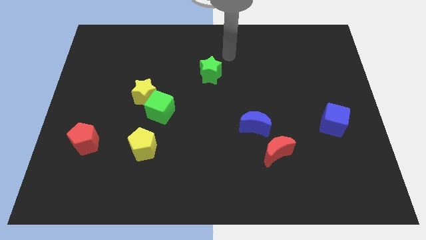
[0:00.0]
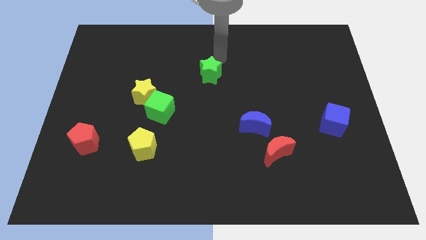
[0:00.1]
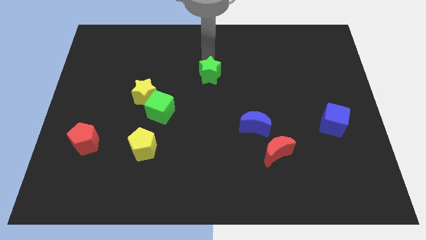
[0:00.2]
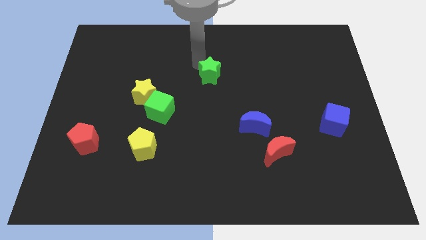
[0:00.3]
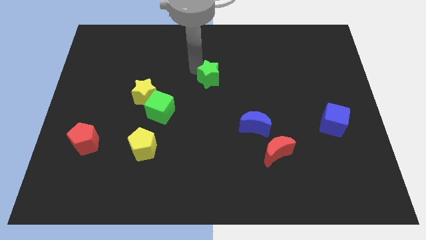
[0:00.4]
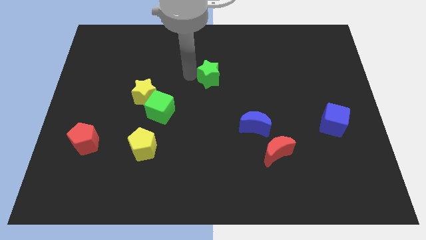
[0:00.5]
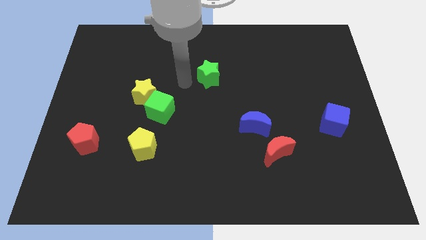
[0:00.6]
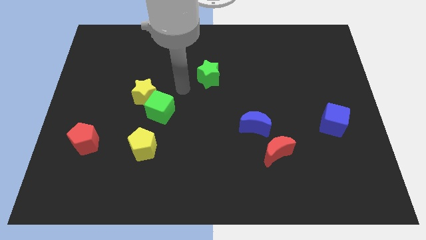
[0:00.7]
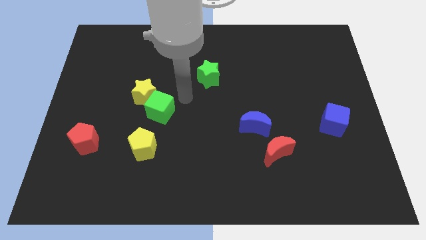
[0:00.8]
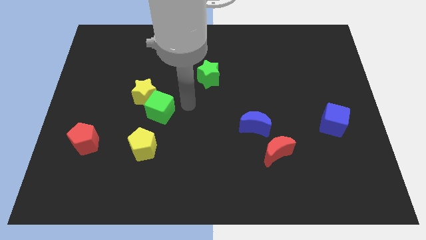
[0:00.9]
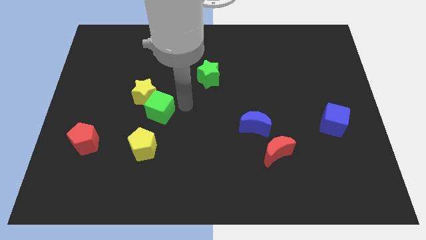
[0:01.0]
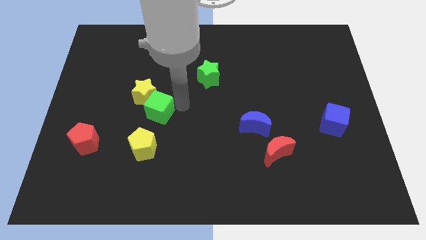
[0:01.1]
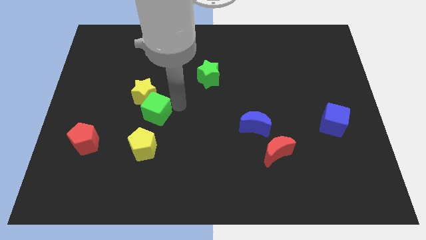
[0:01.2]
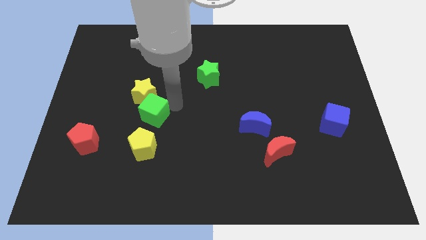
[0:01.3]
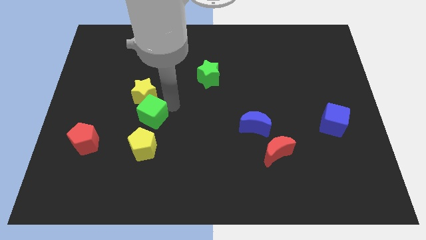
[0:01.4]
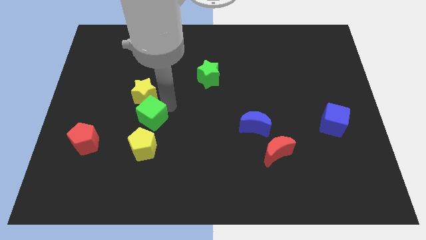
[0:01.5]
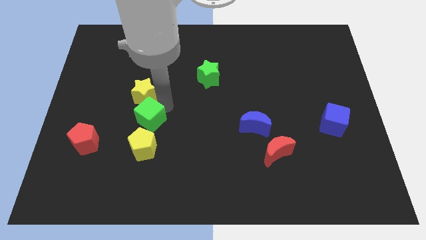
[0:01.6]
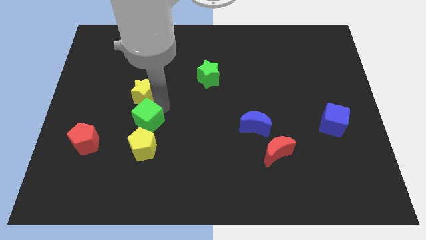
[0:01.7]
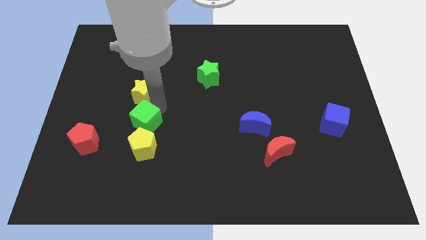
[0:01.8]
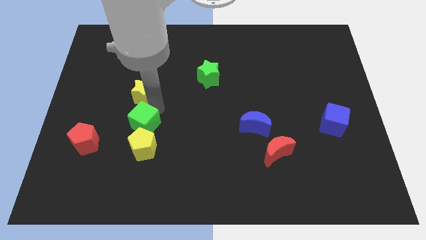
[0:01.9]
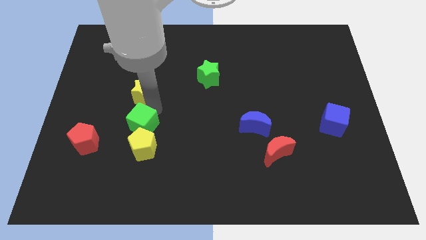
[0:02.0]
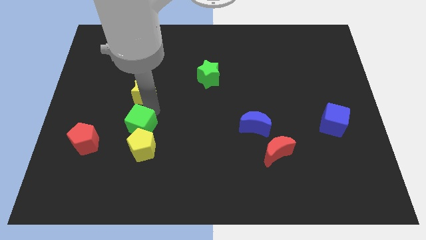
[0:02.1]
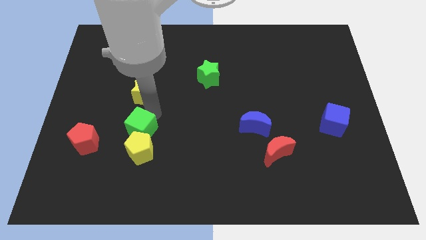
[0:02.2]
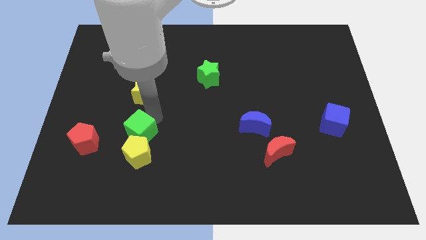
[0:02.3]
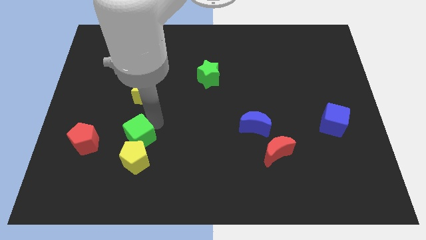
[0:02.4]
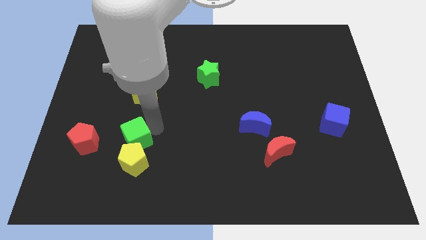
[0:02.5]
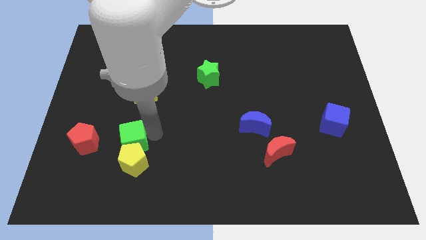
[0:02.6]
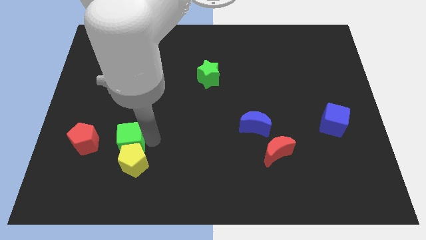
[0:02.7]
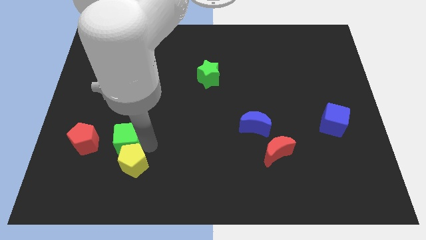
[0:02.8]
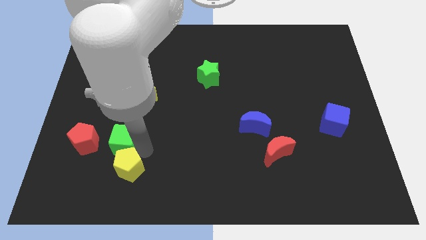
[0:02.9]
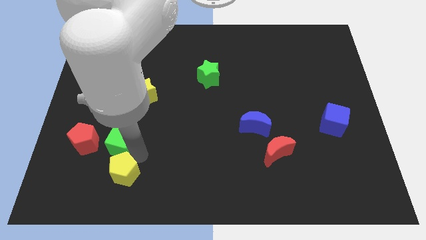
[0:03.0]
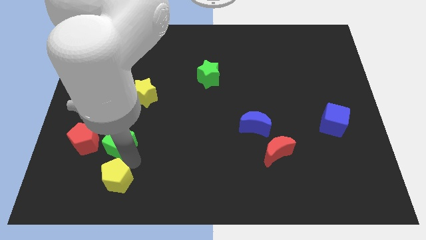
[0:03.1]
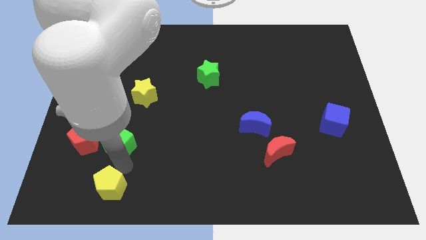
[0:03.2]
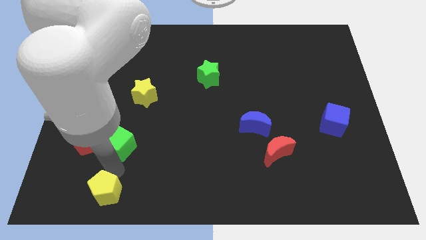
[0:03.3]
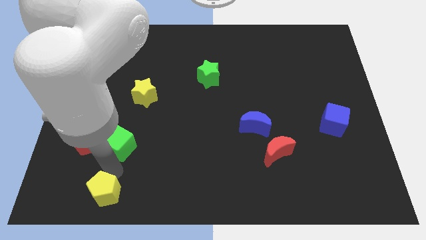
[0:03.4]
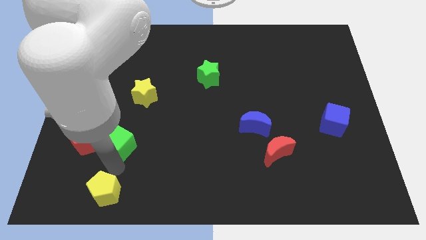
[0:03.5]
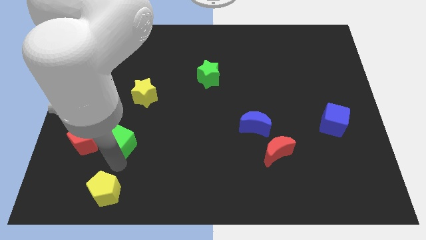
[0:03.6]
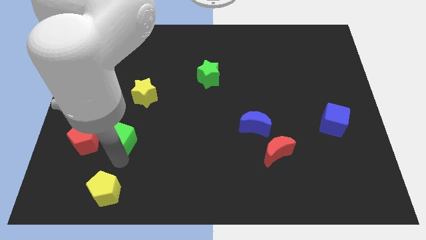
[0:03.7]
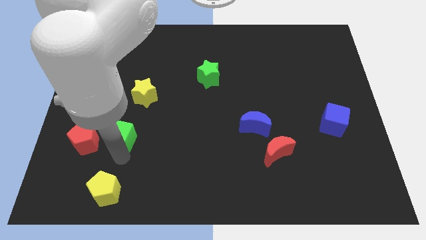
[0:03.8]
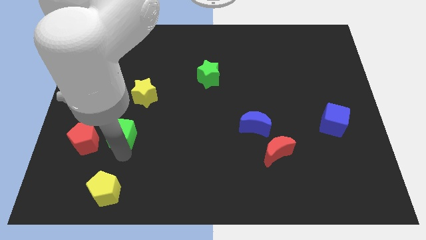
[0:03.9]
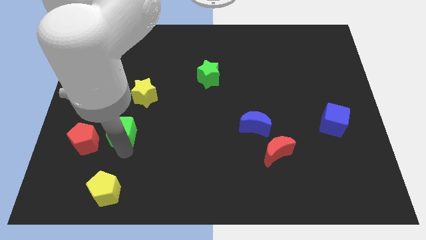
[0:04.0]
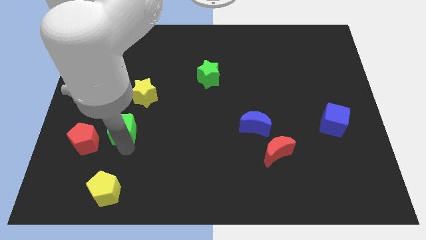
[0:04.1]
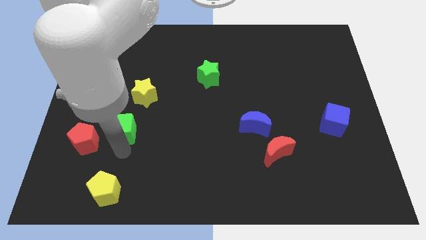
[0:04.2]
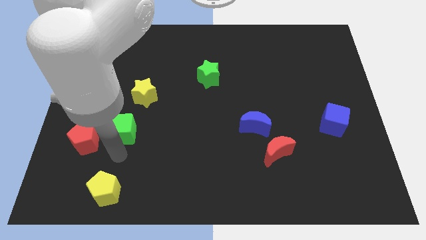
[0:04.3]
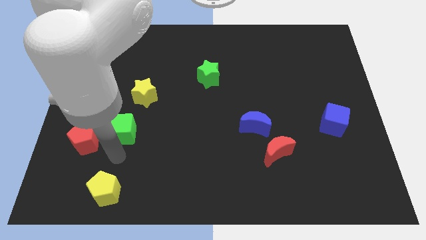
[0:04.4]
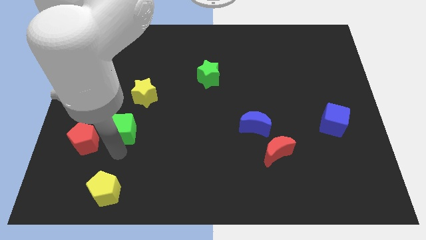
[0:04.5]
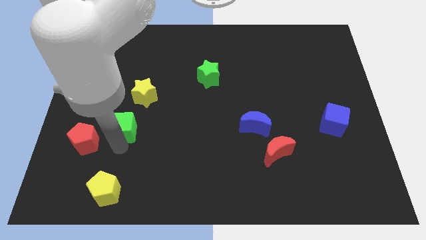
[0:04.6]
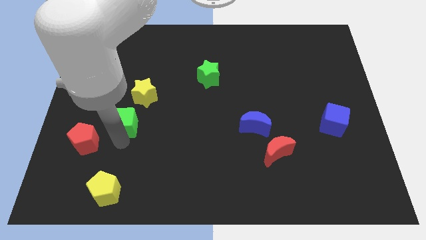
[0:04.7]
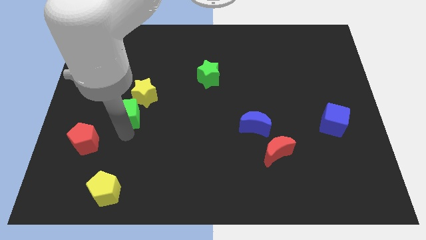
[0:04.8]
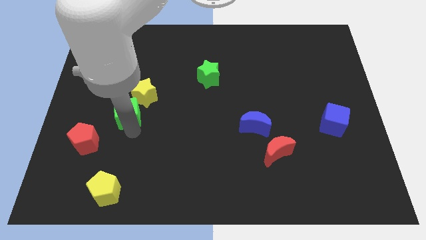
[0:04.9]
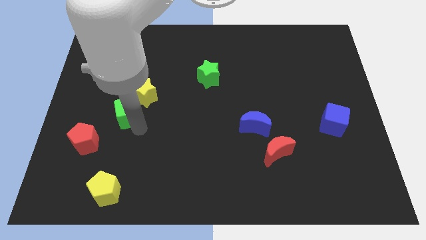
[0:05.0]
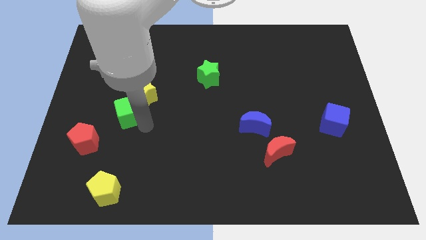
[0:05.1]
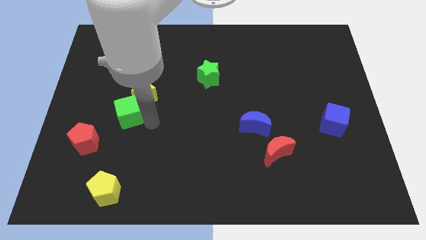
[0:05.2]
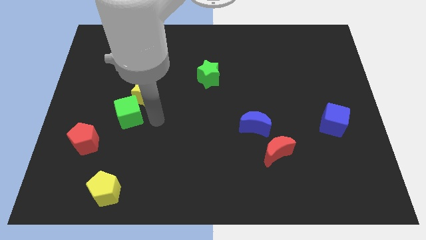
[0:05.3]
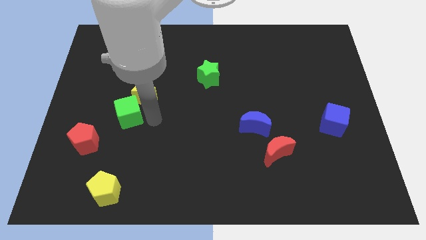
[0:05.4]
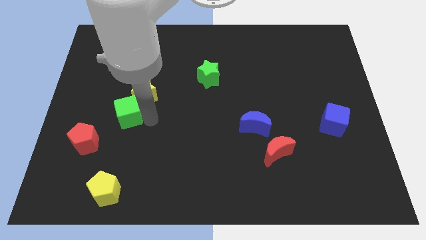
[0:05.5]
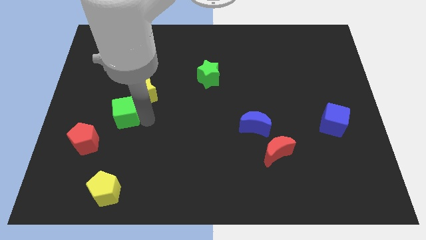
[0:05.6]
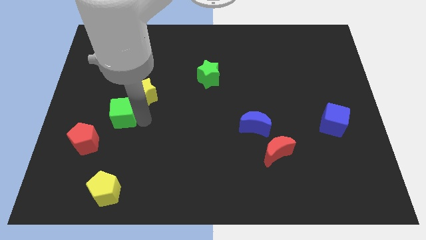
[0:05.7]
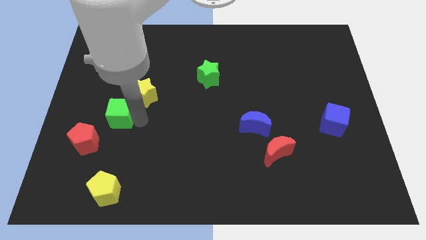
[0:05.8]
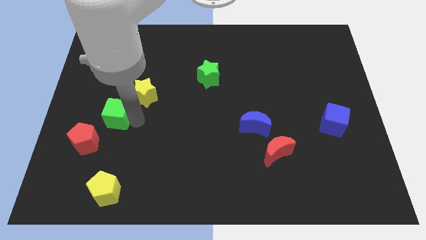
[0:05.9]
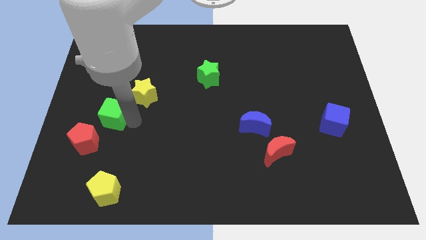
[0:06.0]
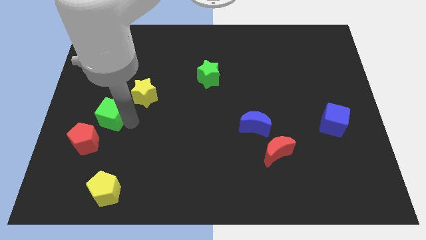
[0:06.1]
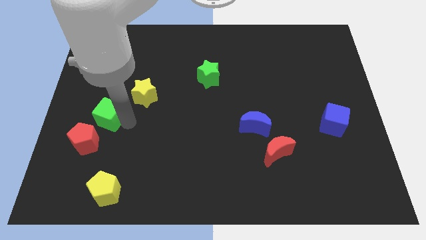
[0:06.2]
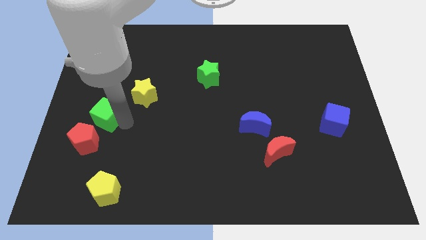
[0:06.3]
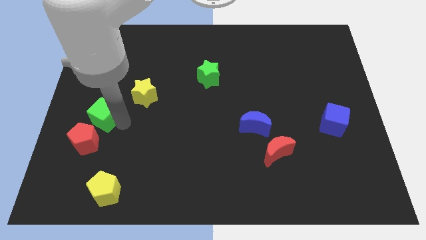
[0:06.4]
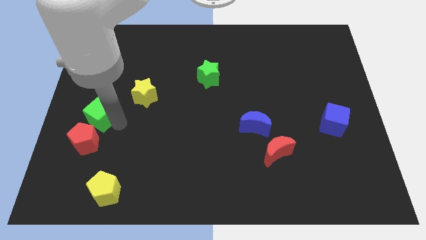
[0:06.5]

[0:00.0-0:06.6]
slide the green cube to the left side of the board
